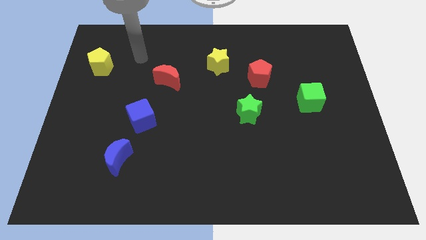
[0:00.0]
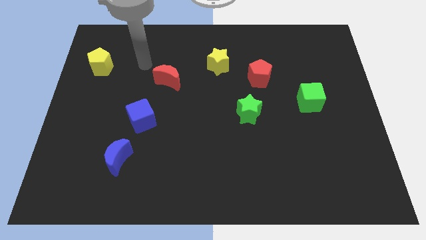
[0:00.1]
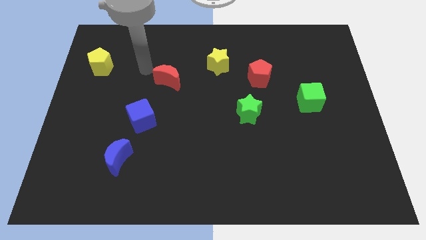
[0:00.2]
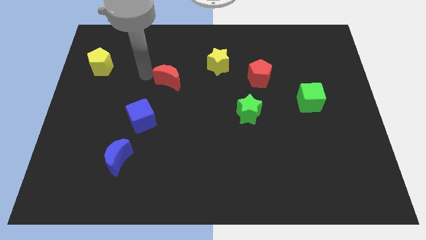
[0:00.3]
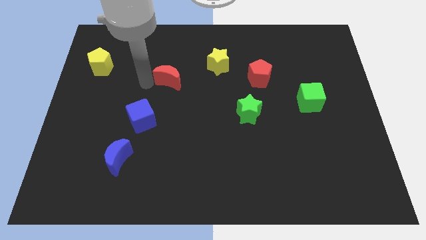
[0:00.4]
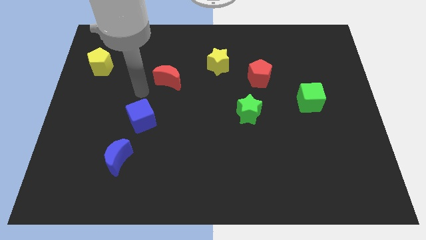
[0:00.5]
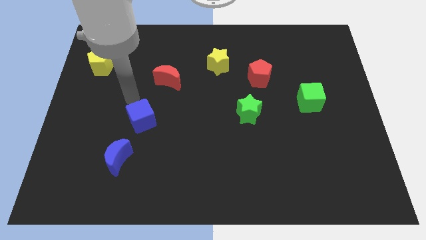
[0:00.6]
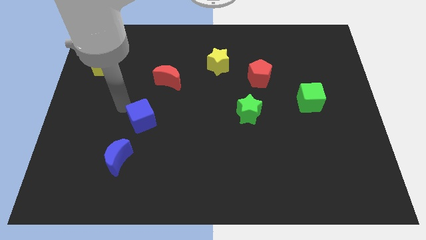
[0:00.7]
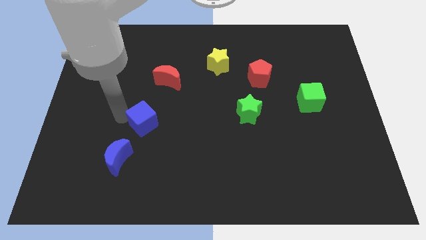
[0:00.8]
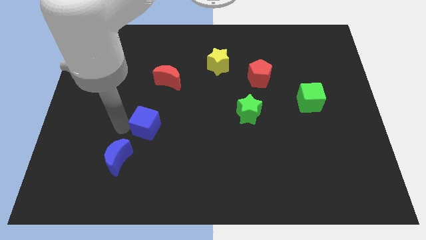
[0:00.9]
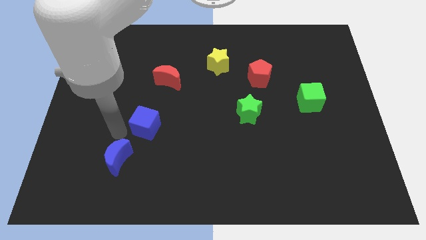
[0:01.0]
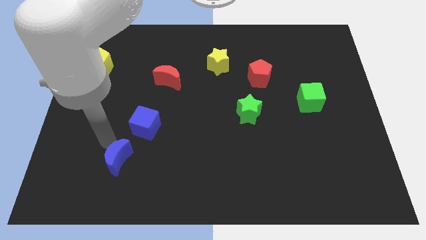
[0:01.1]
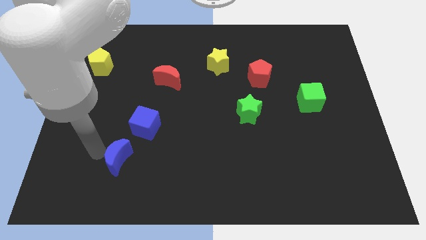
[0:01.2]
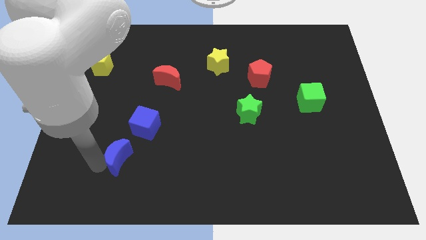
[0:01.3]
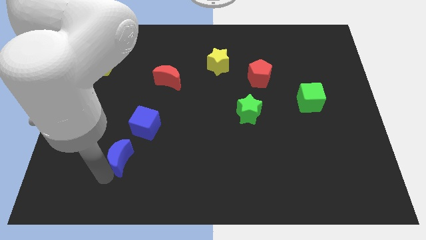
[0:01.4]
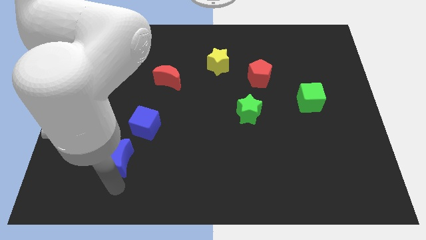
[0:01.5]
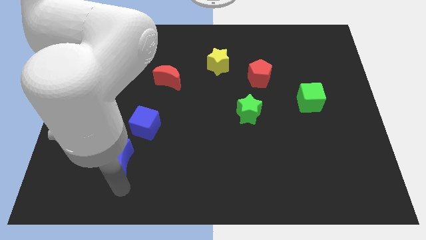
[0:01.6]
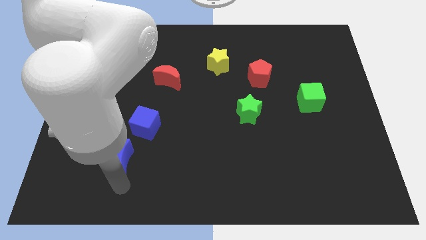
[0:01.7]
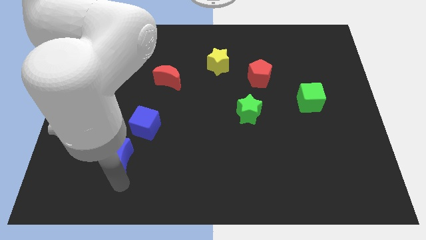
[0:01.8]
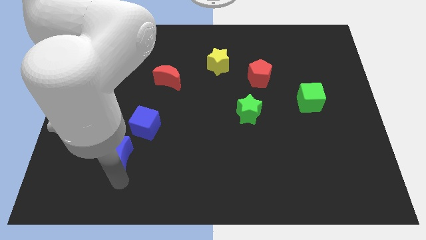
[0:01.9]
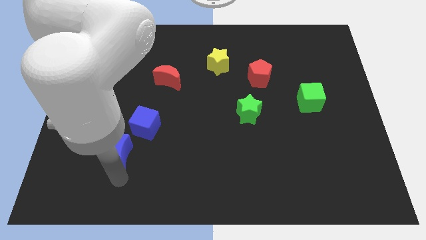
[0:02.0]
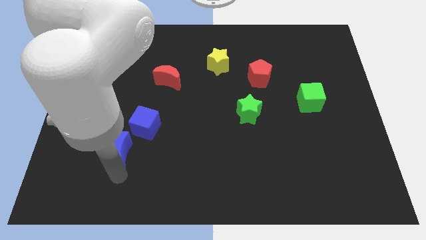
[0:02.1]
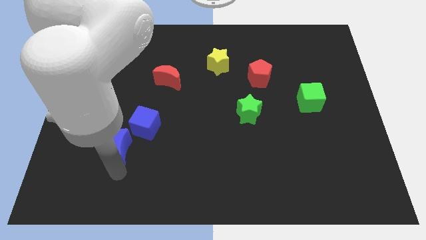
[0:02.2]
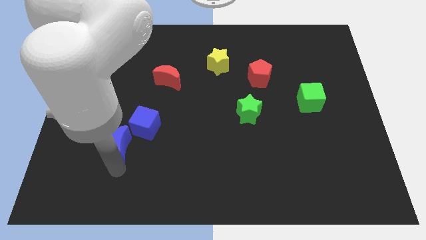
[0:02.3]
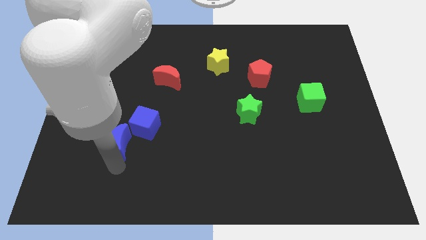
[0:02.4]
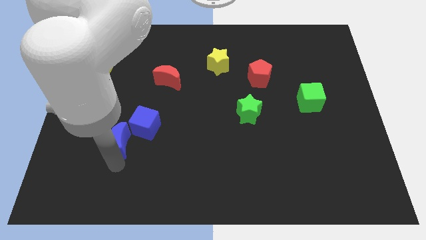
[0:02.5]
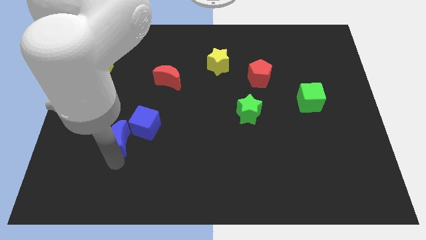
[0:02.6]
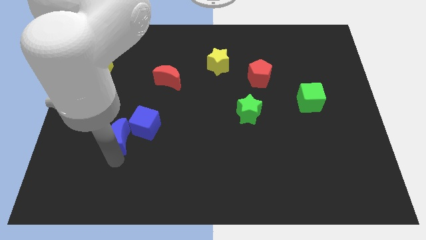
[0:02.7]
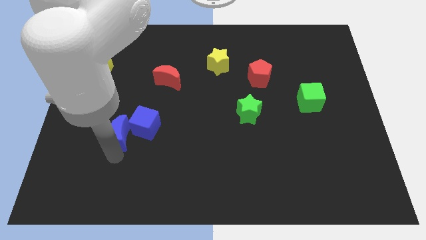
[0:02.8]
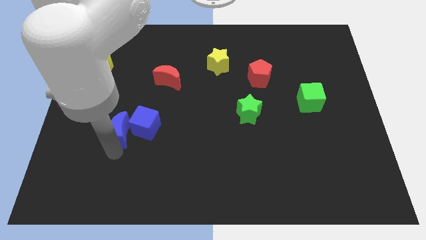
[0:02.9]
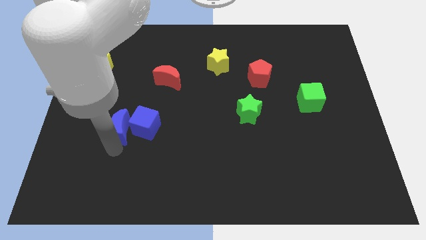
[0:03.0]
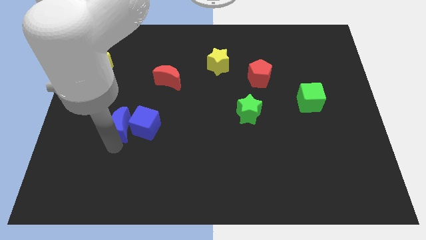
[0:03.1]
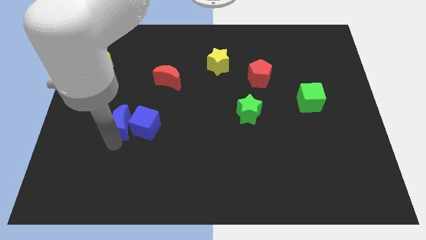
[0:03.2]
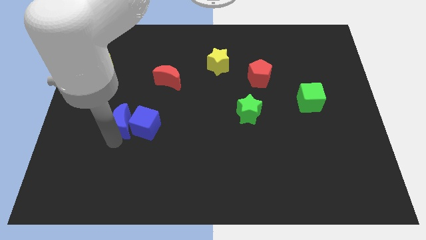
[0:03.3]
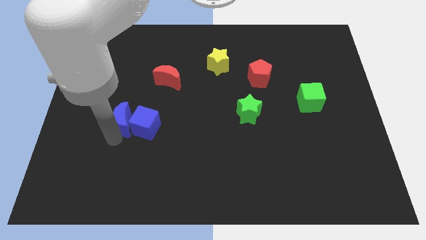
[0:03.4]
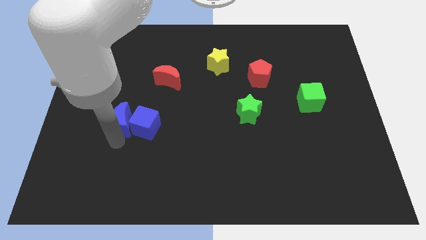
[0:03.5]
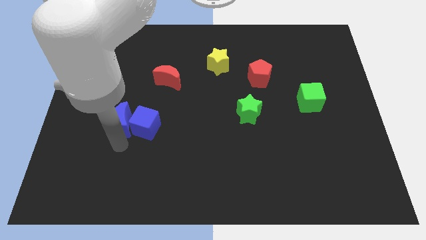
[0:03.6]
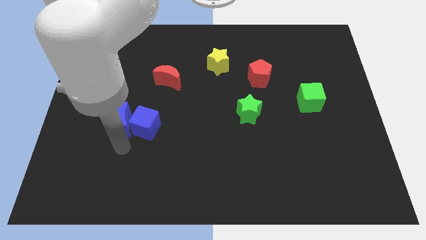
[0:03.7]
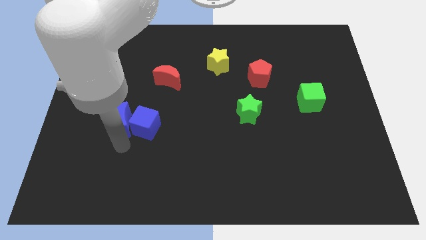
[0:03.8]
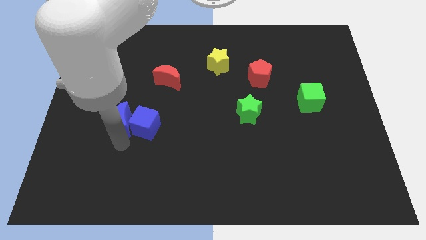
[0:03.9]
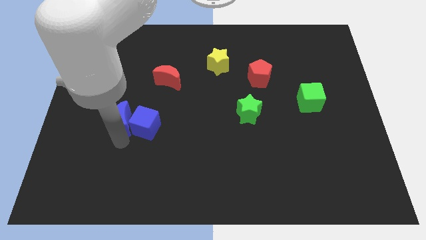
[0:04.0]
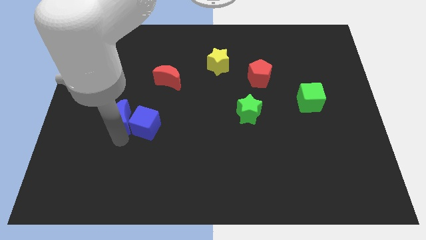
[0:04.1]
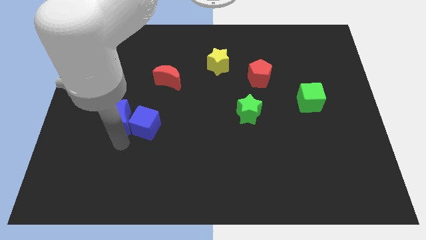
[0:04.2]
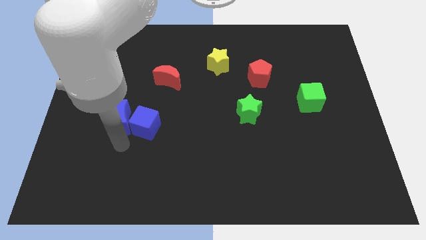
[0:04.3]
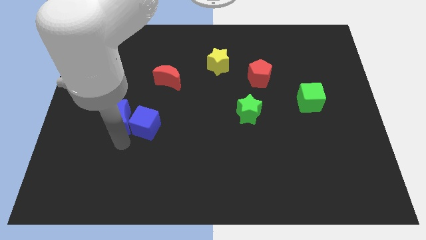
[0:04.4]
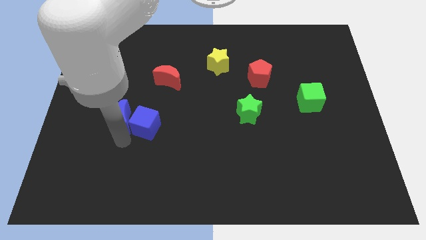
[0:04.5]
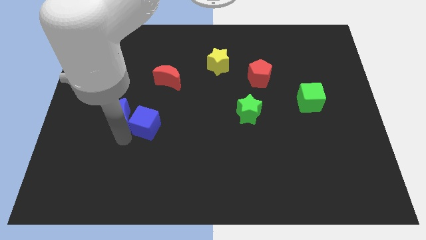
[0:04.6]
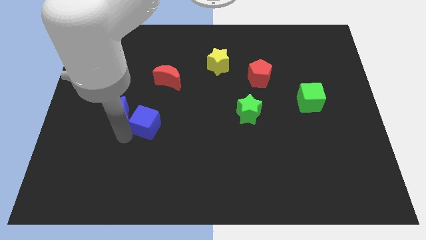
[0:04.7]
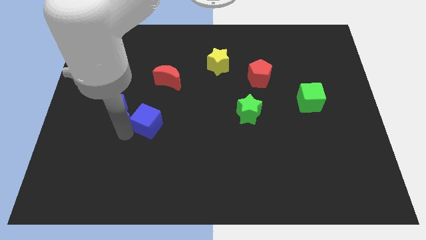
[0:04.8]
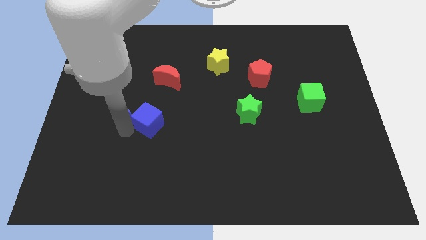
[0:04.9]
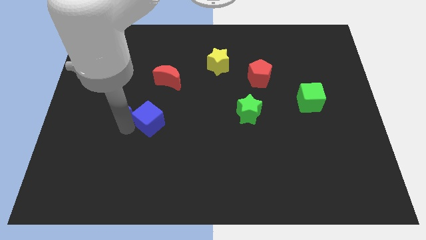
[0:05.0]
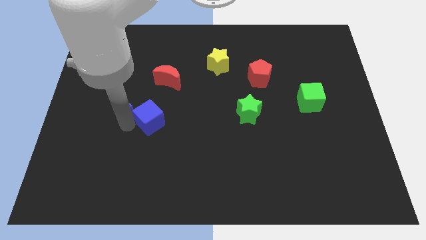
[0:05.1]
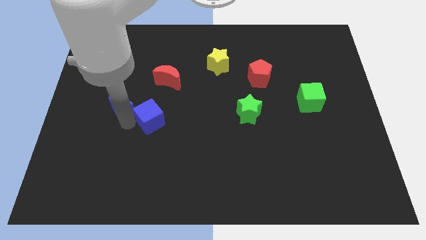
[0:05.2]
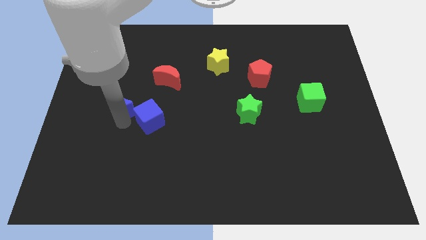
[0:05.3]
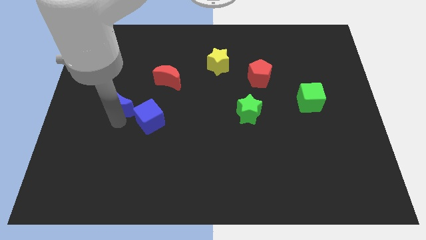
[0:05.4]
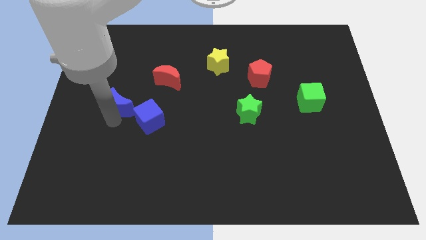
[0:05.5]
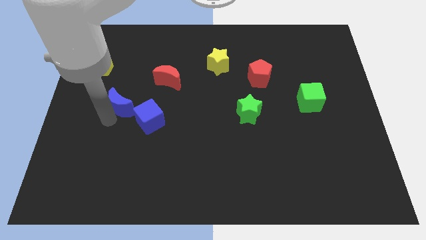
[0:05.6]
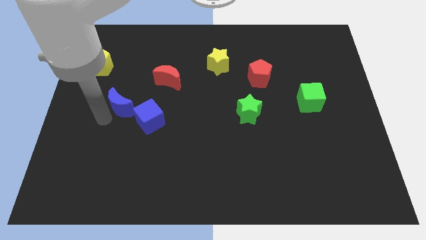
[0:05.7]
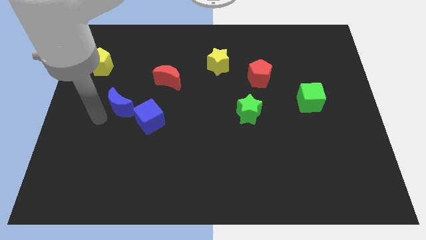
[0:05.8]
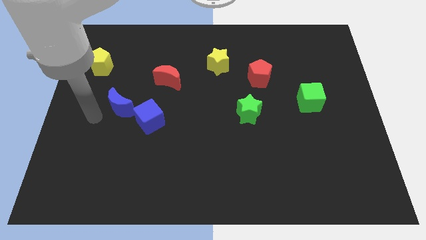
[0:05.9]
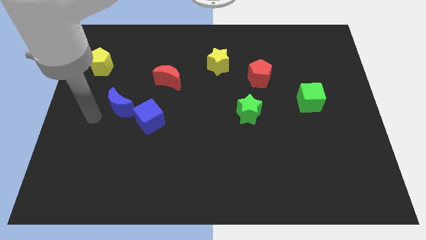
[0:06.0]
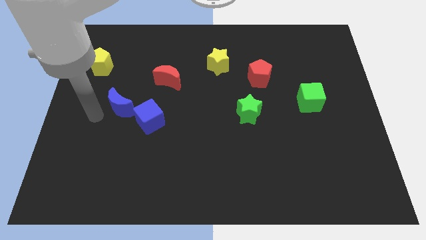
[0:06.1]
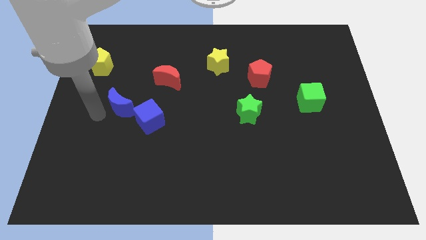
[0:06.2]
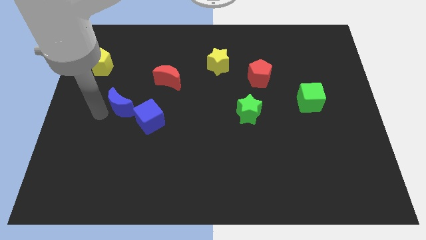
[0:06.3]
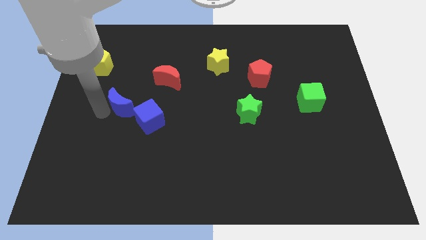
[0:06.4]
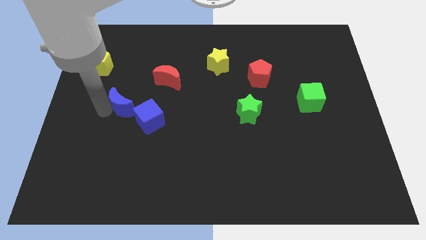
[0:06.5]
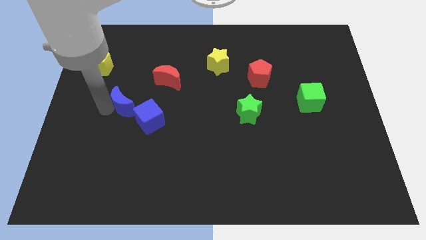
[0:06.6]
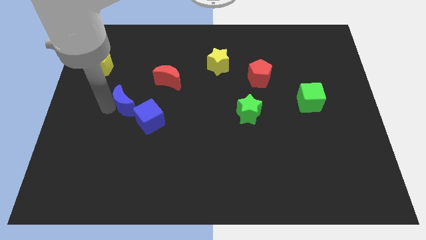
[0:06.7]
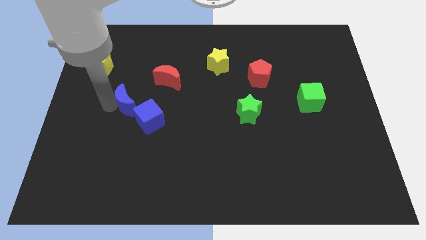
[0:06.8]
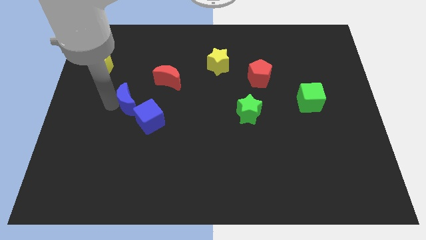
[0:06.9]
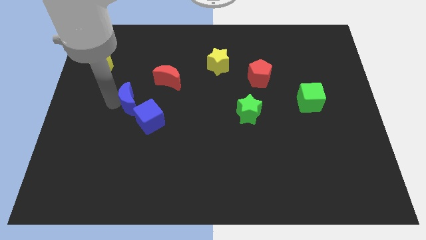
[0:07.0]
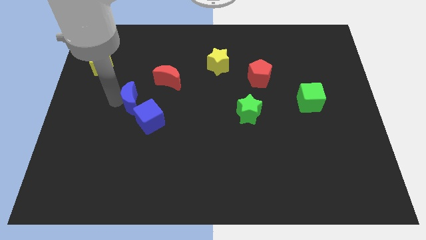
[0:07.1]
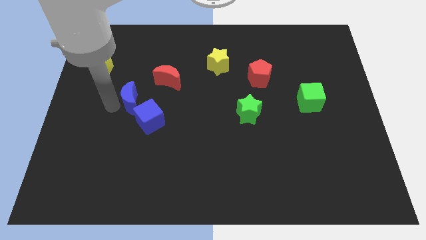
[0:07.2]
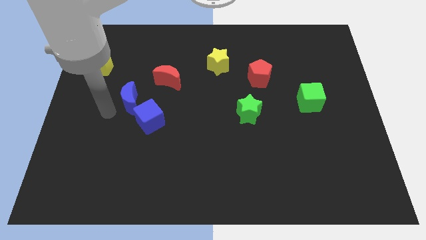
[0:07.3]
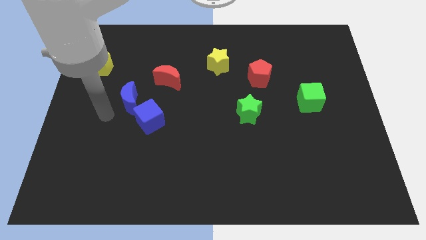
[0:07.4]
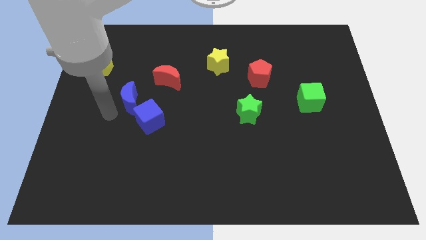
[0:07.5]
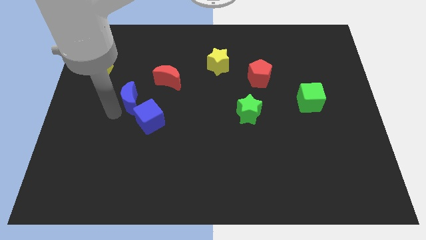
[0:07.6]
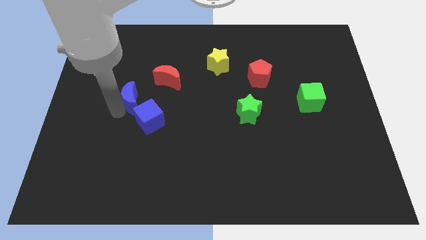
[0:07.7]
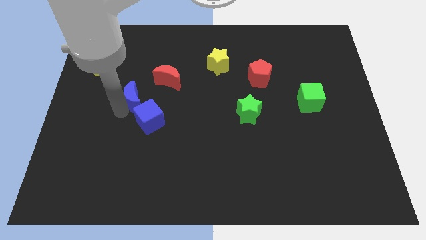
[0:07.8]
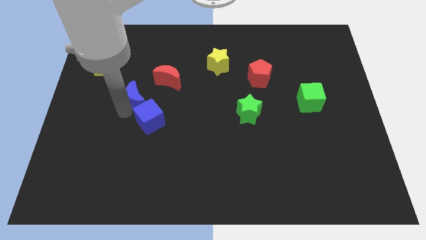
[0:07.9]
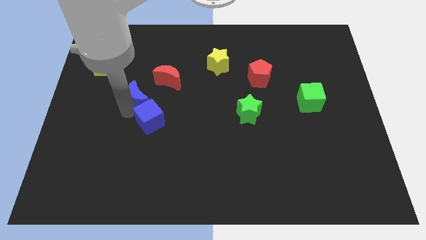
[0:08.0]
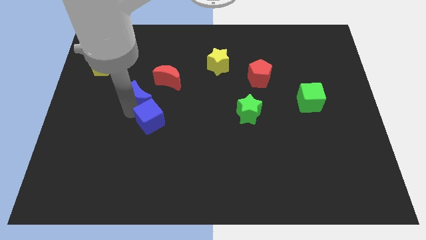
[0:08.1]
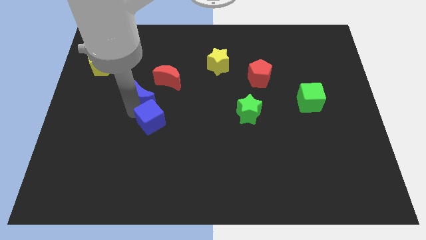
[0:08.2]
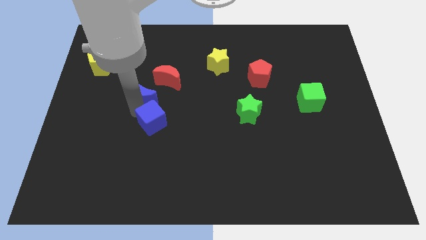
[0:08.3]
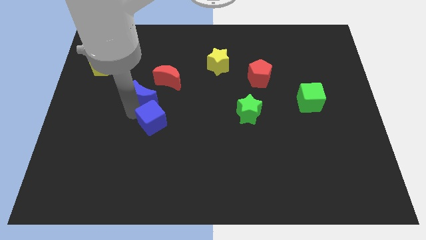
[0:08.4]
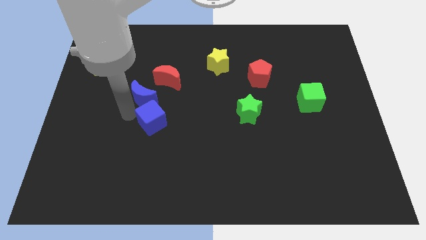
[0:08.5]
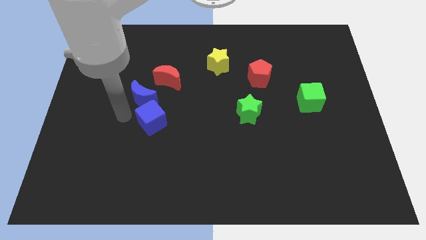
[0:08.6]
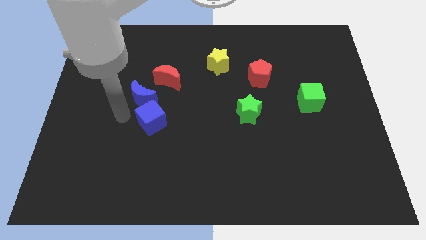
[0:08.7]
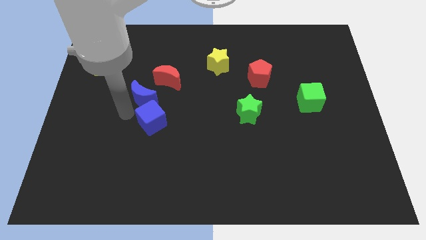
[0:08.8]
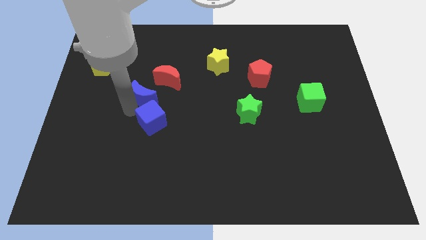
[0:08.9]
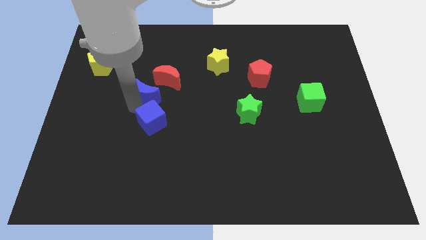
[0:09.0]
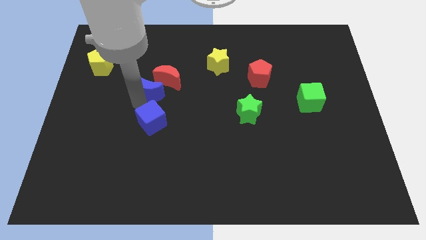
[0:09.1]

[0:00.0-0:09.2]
move the blue moon towards the red moon
